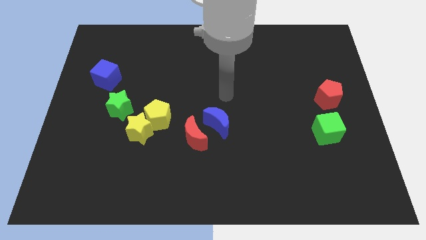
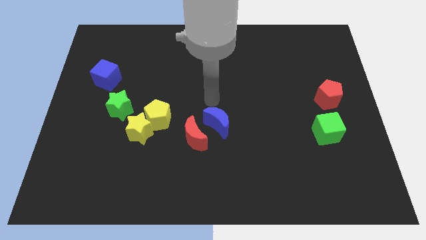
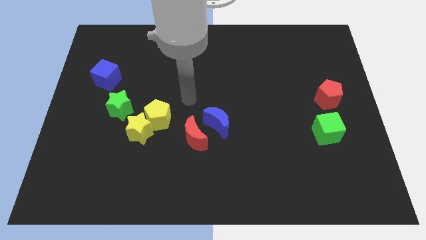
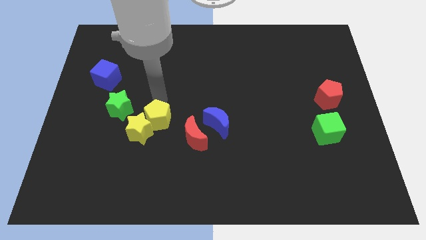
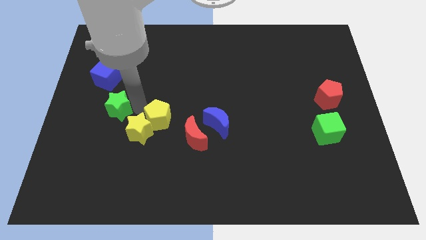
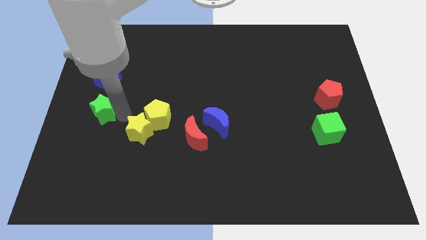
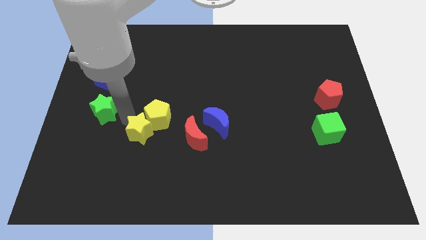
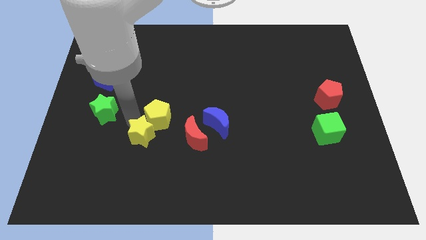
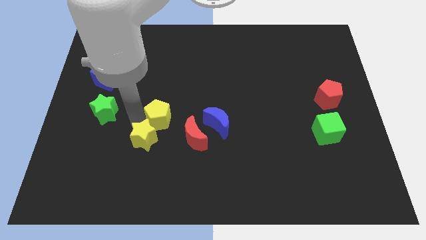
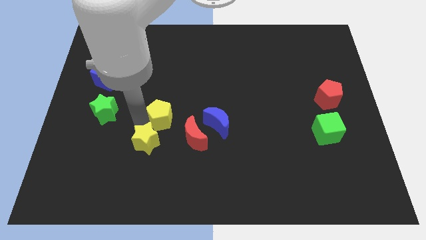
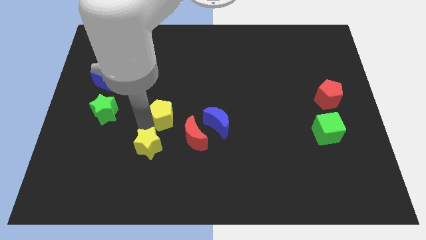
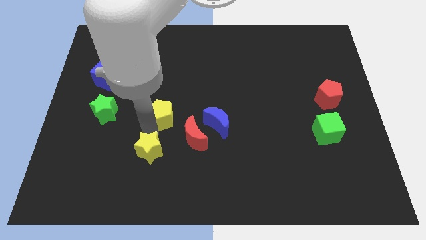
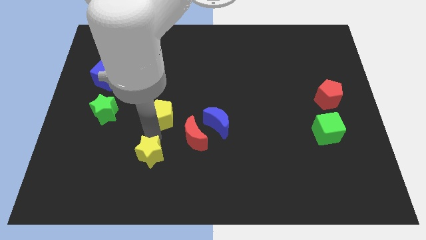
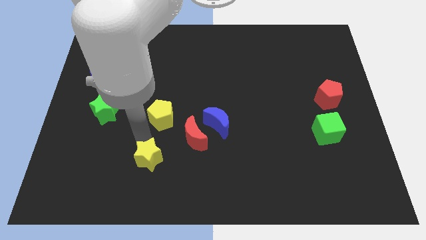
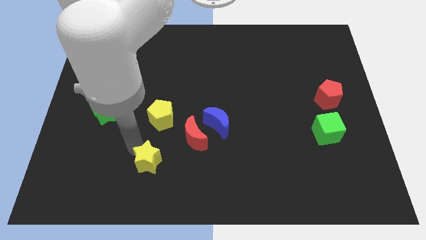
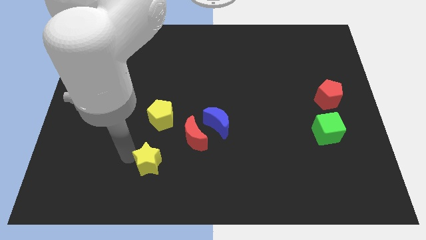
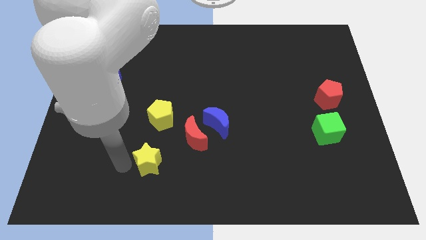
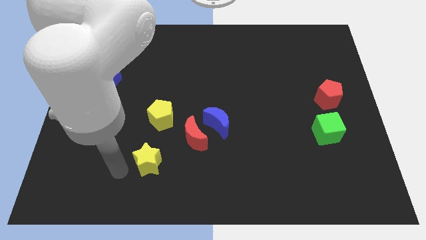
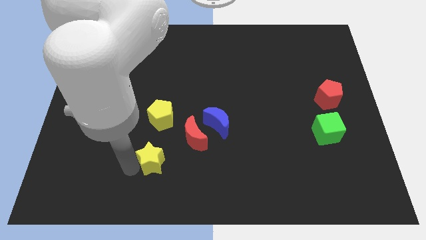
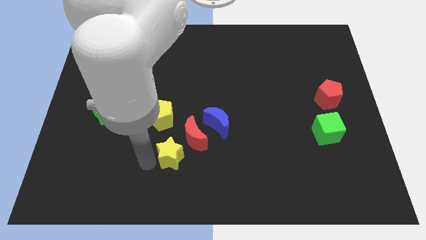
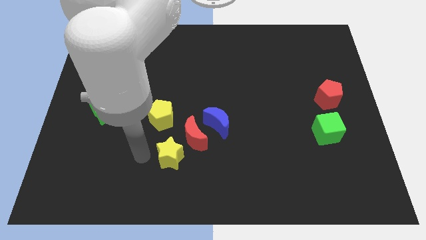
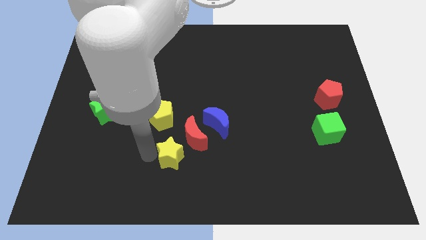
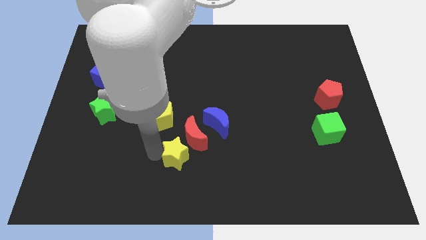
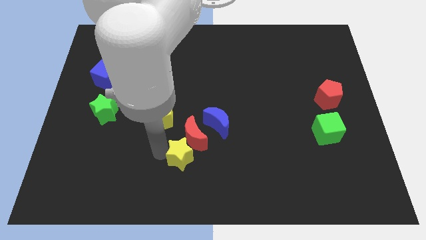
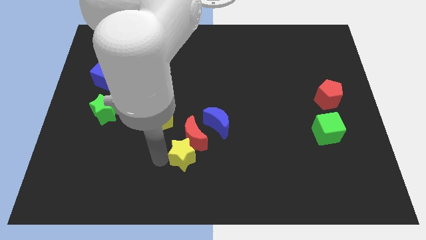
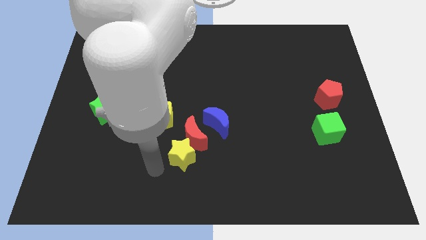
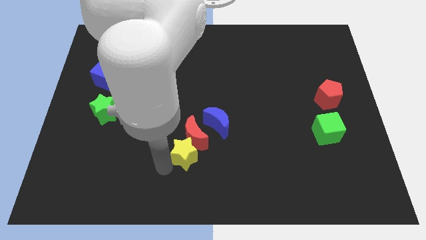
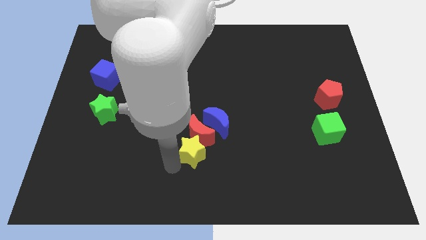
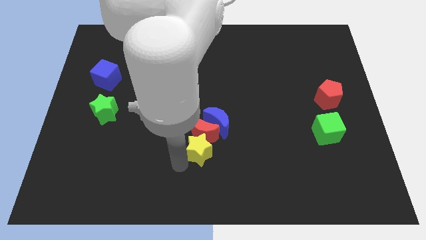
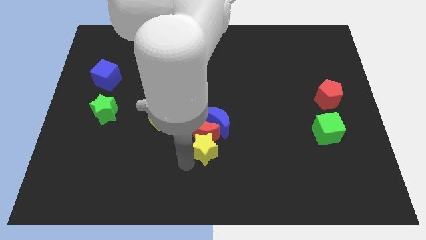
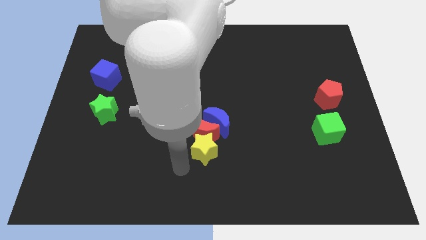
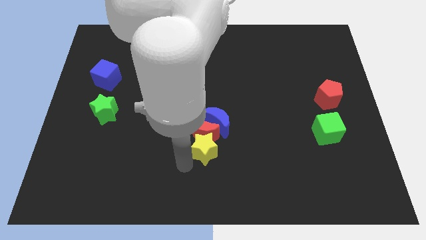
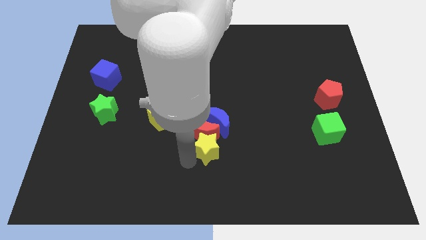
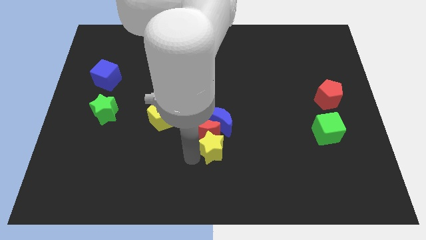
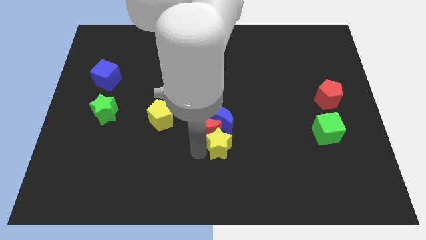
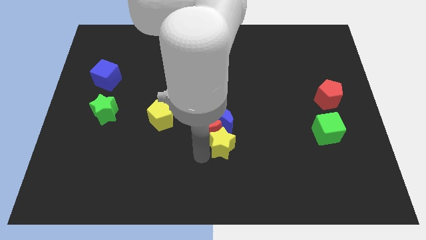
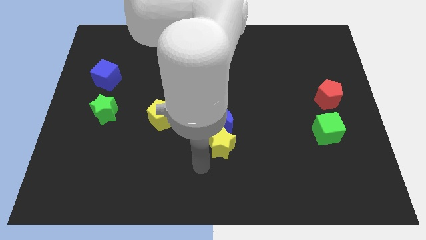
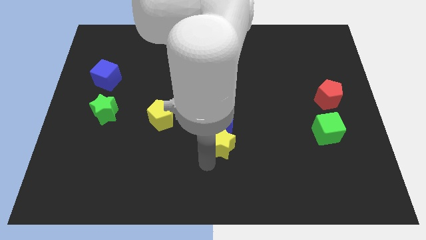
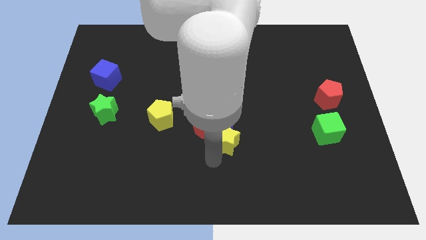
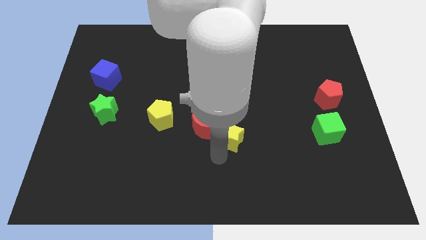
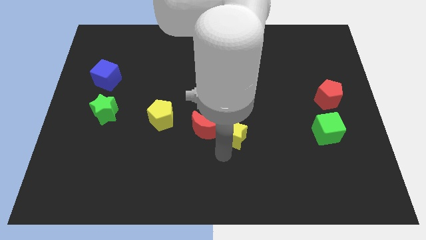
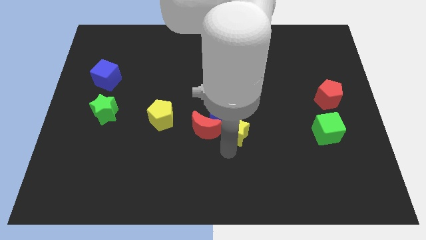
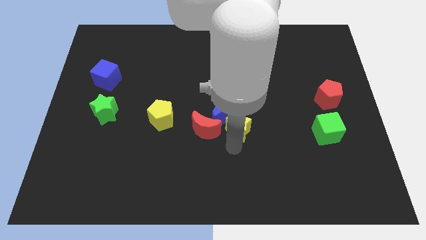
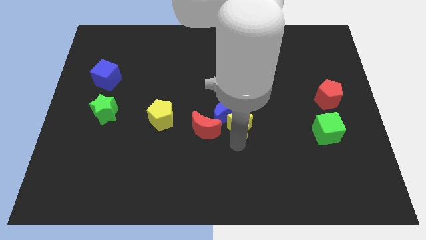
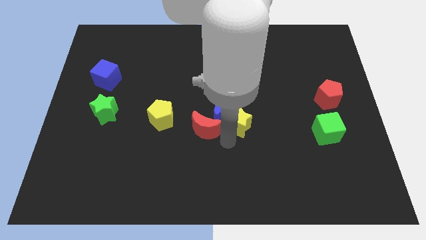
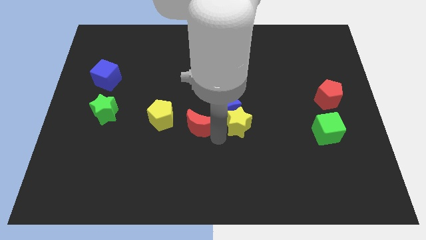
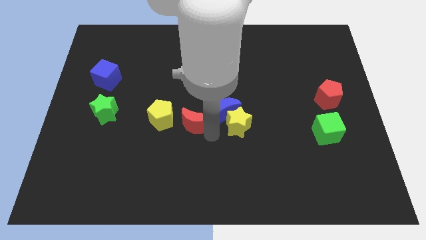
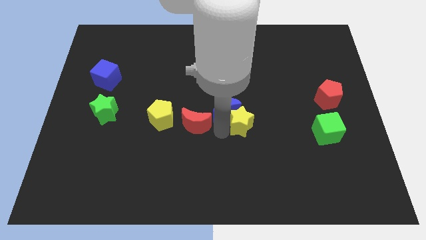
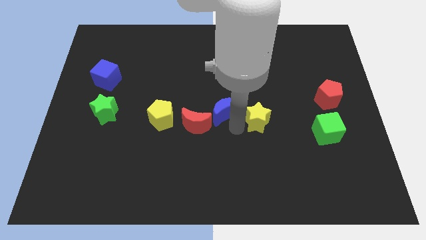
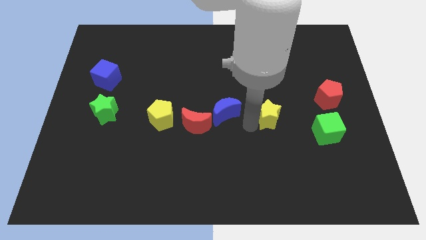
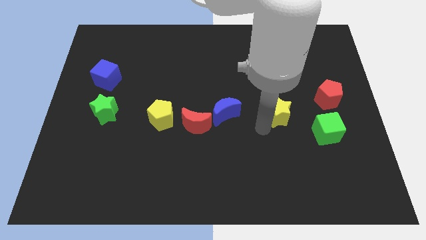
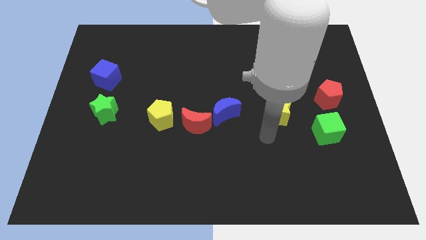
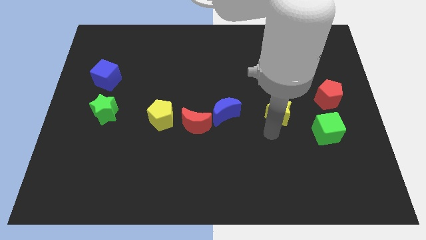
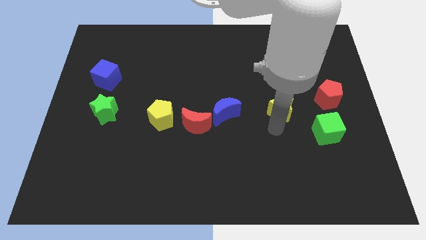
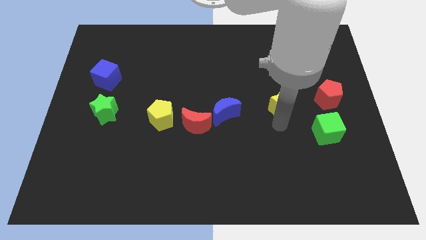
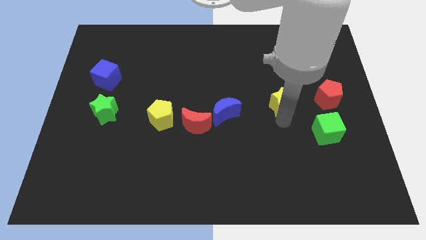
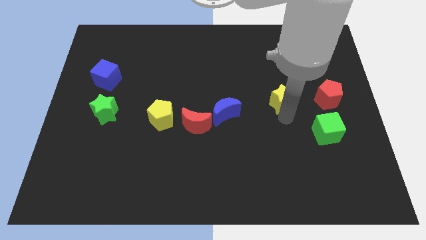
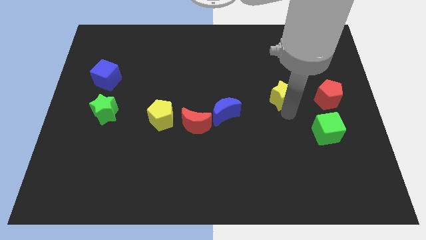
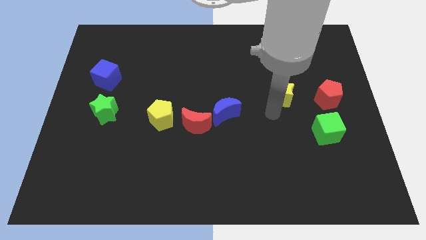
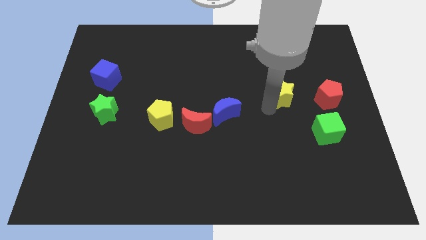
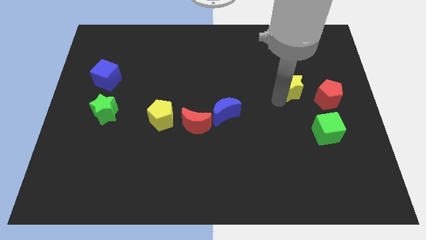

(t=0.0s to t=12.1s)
move the yellow star diagonally up and to the left of the red pentagon

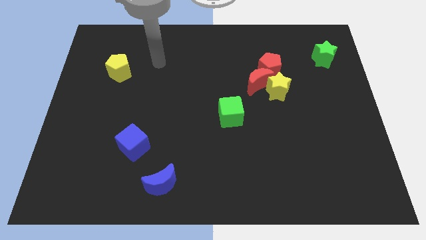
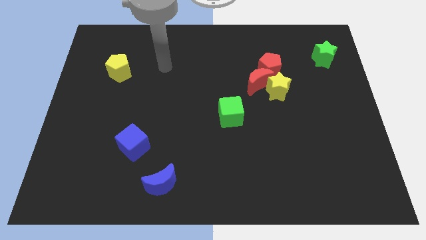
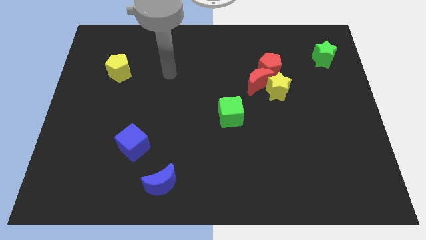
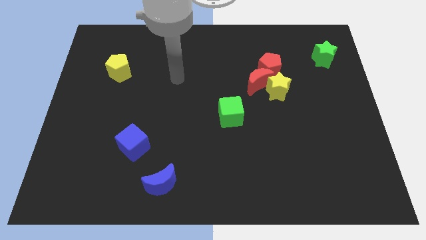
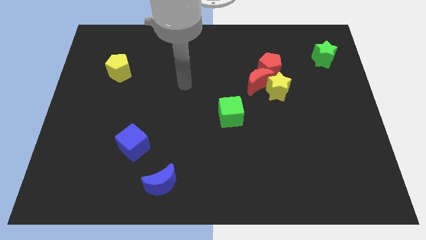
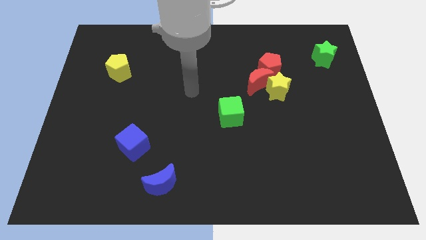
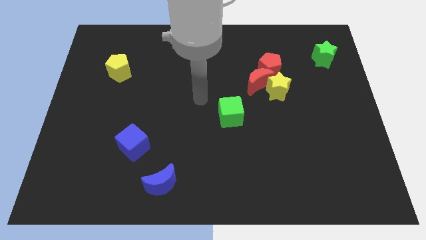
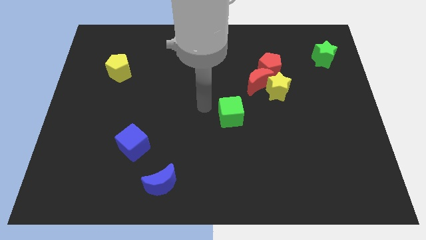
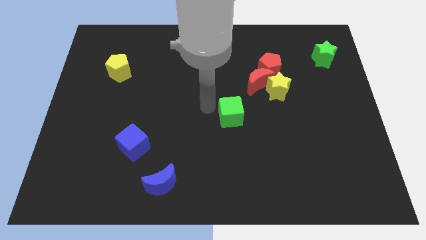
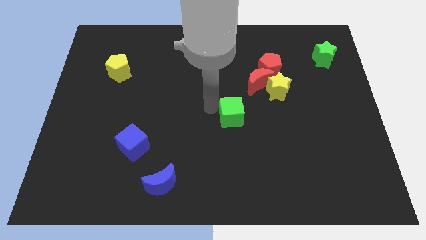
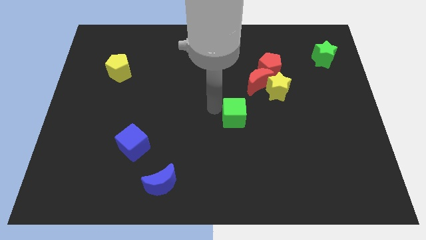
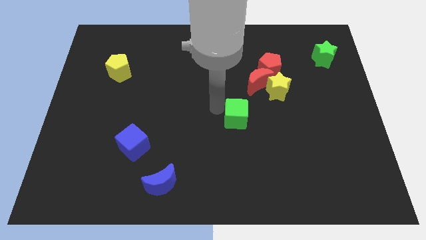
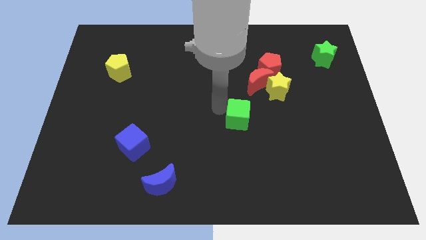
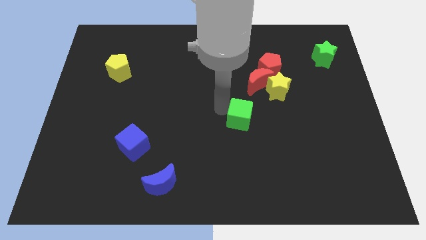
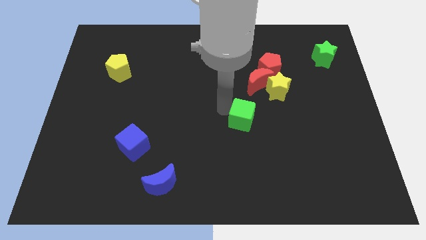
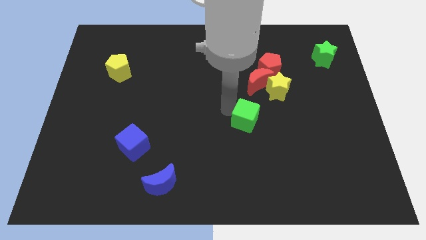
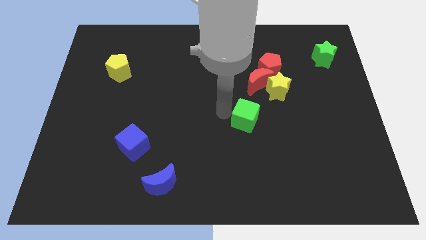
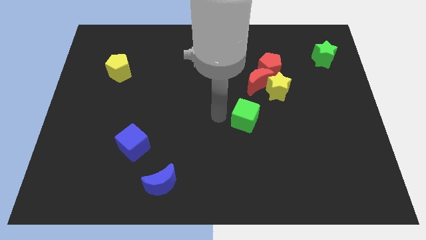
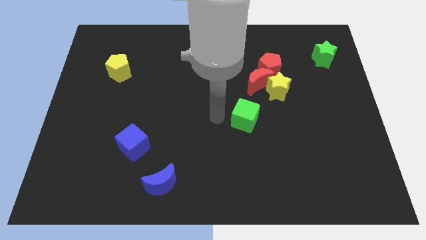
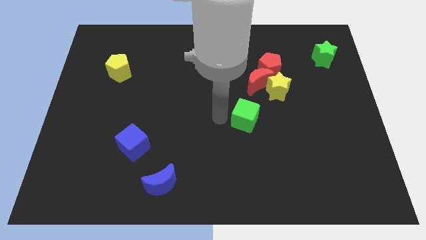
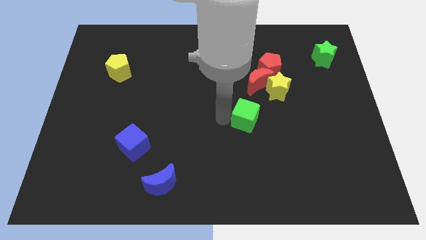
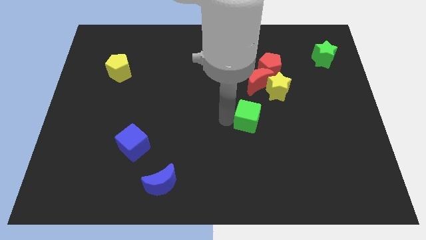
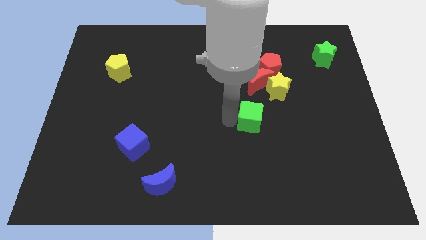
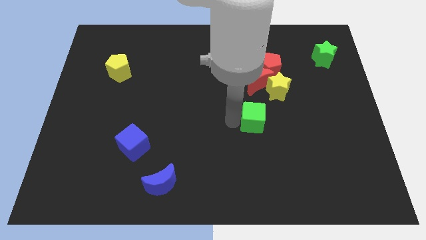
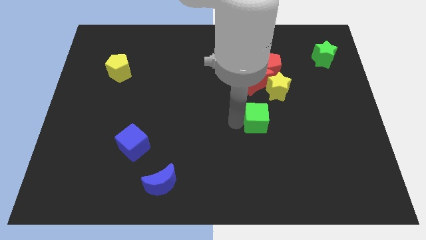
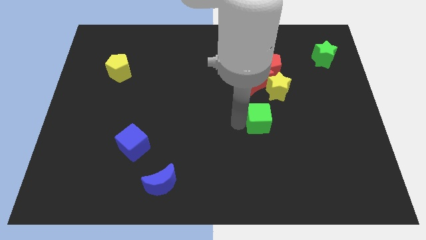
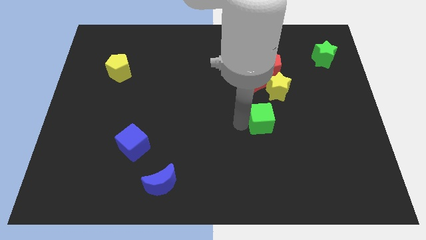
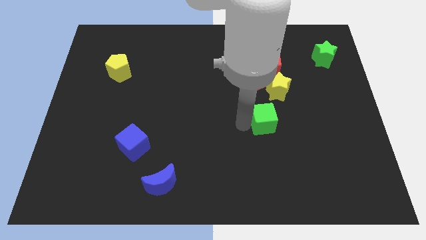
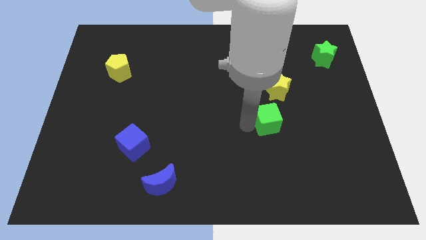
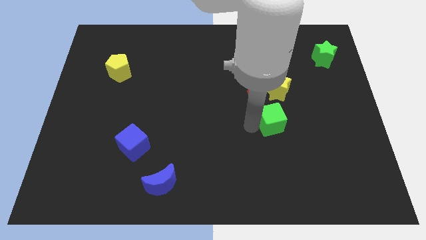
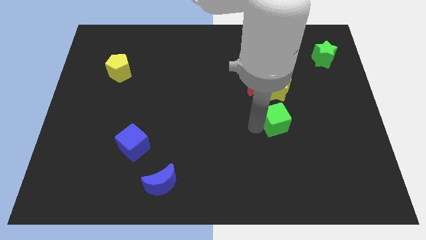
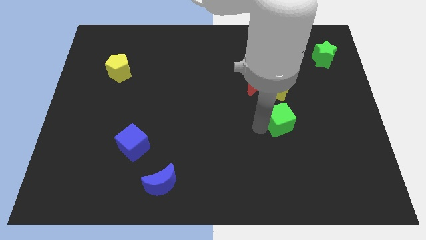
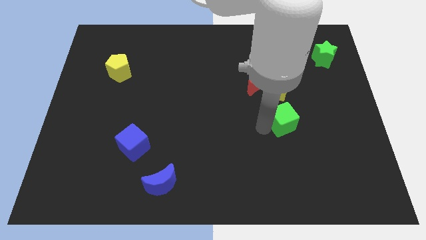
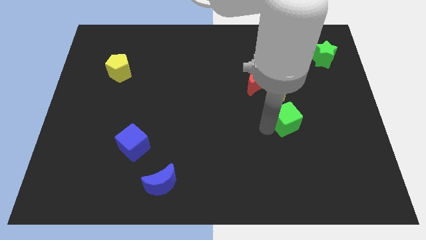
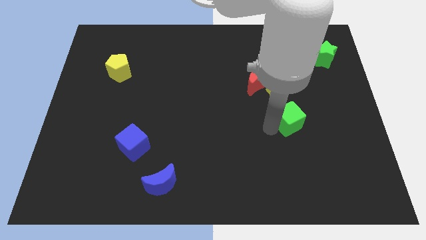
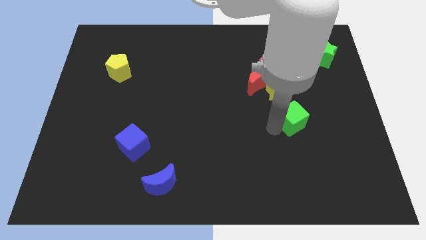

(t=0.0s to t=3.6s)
put the green cube to the bottom right of the yellow star
